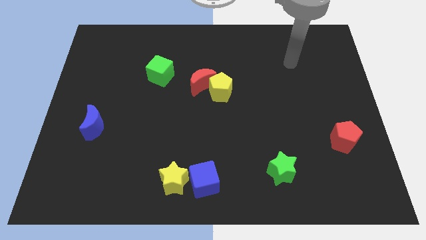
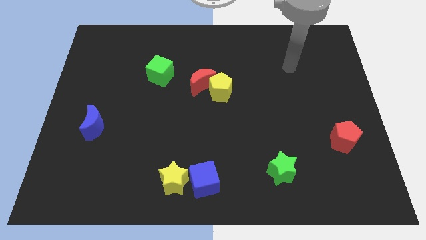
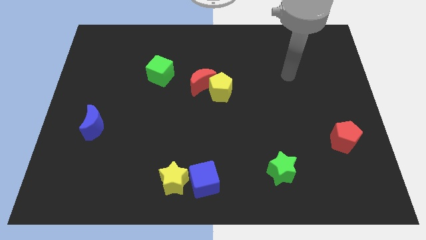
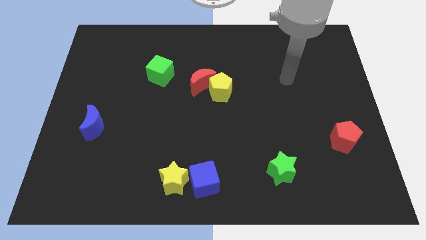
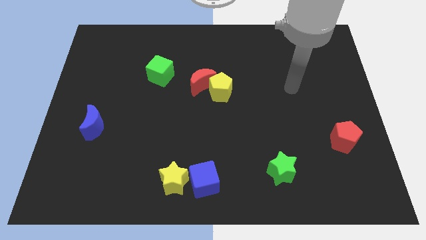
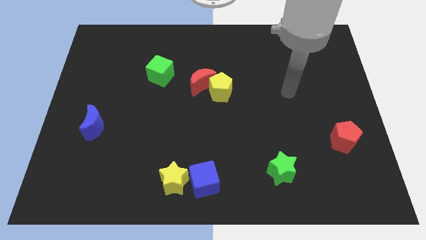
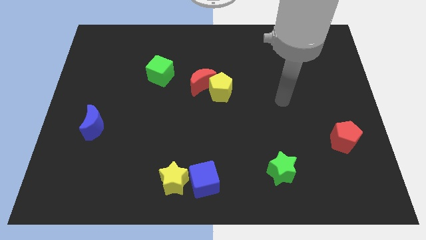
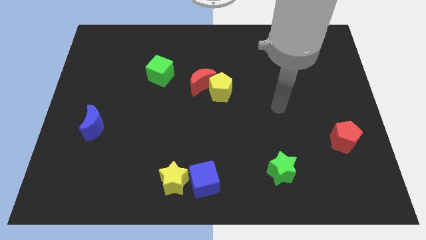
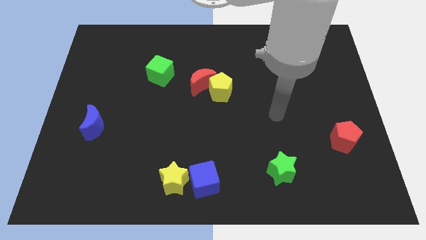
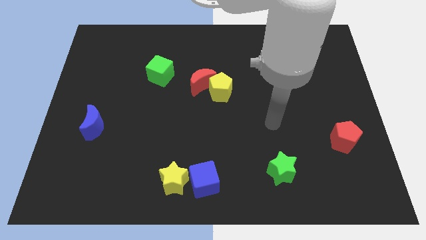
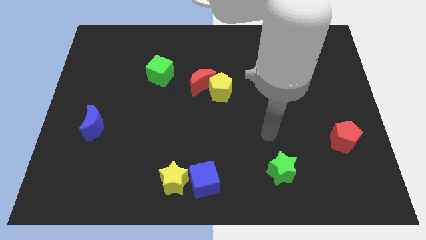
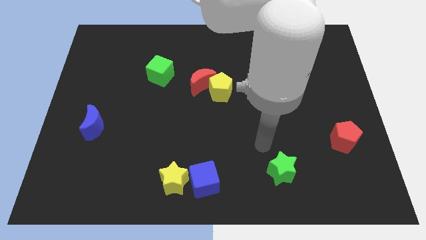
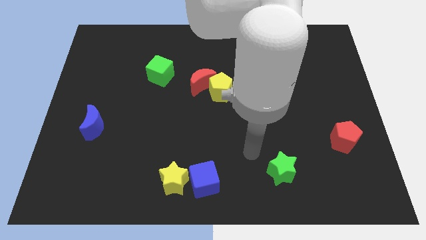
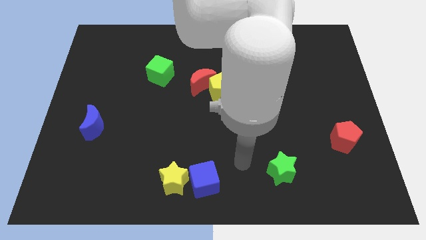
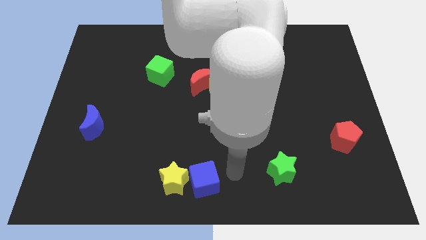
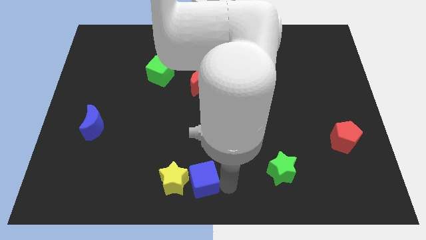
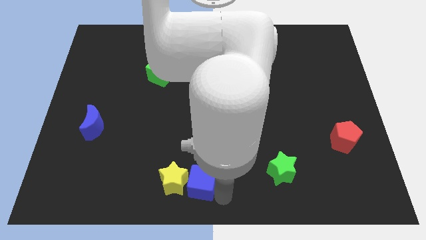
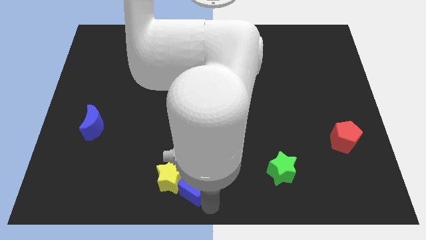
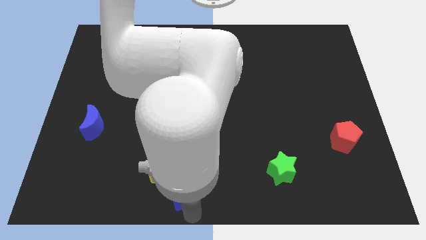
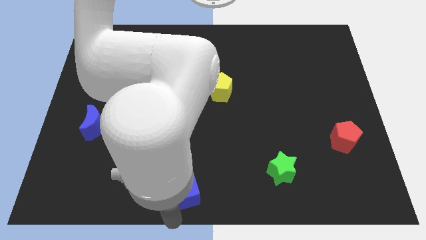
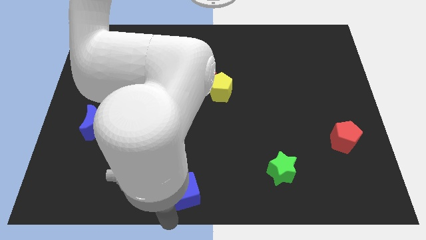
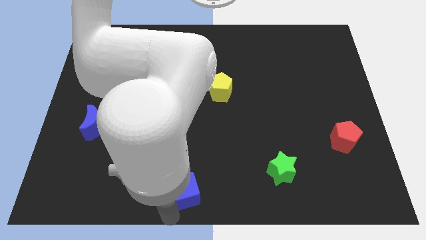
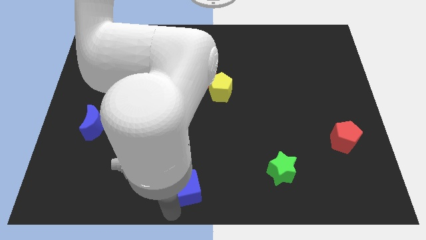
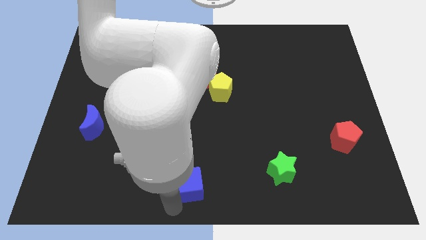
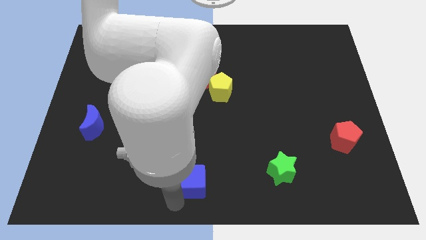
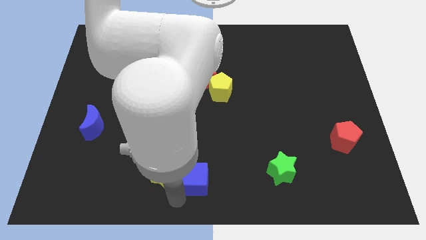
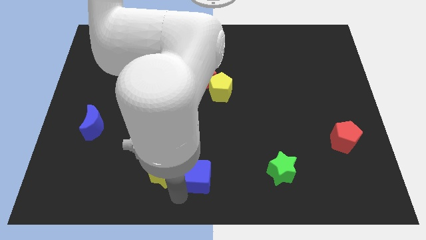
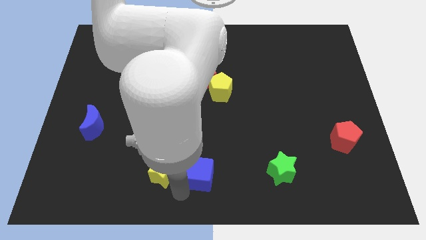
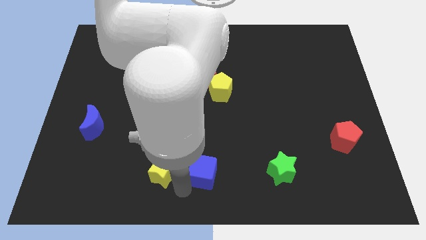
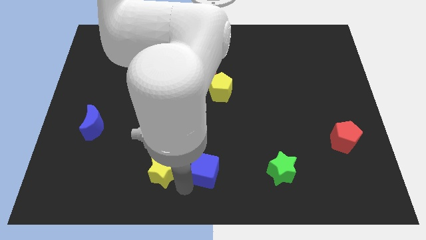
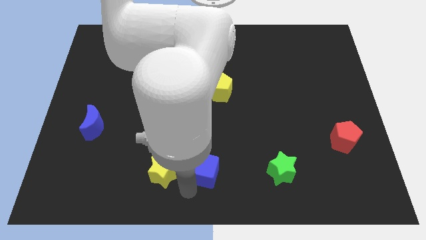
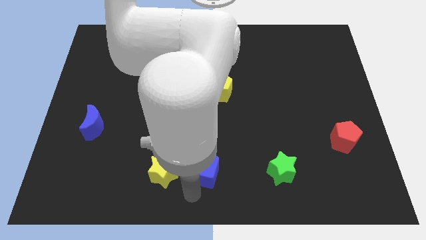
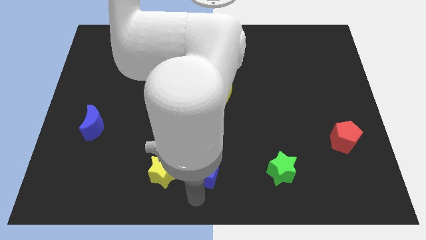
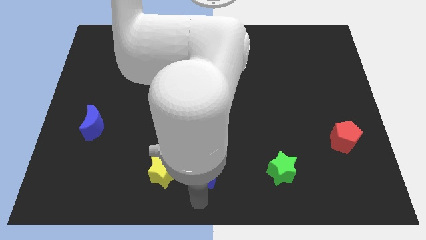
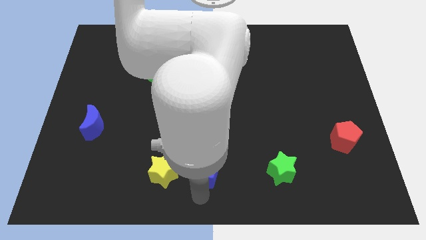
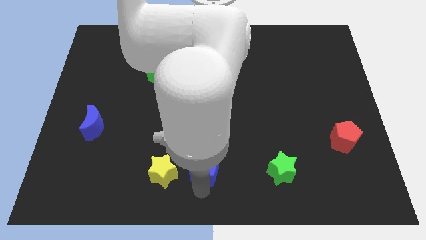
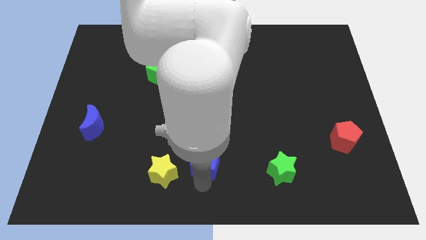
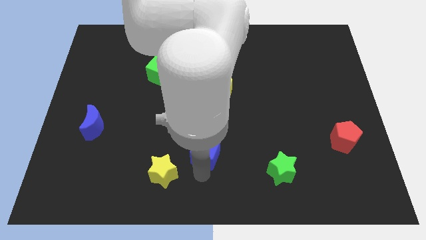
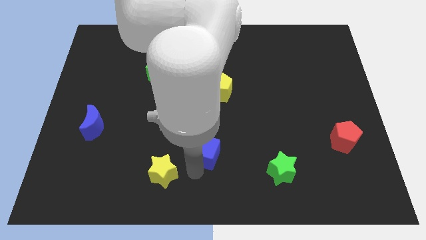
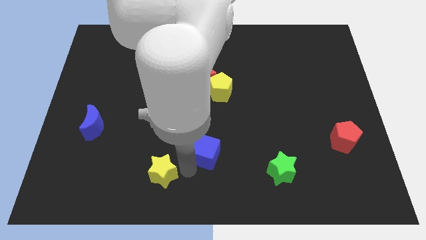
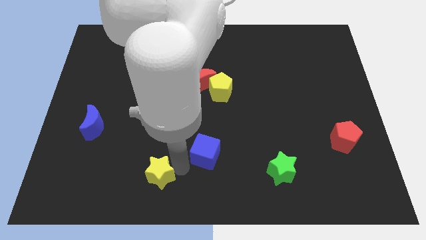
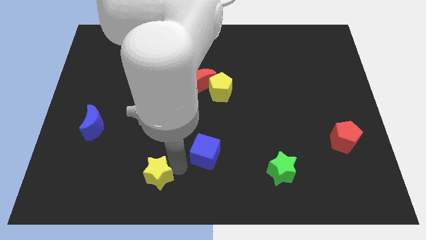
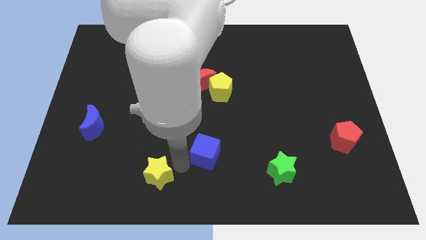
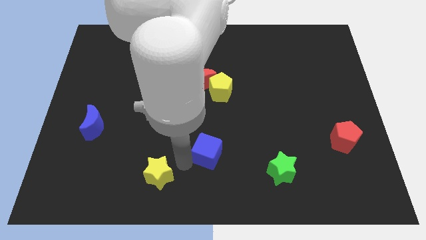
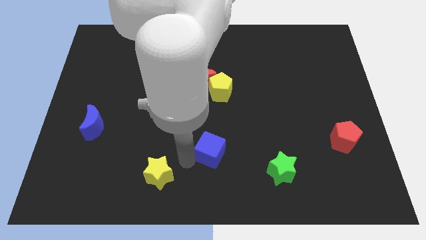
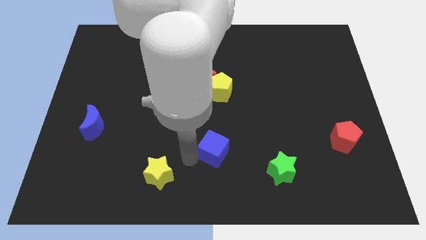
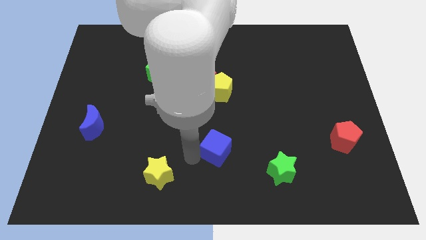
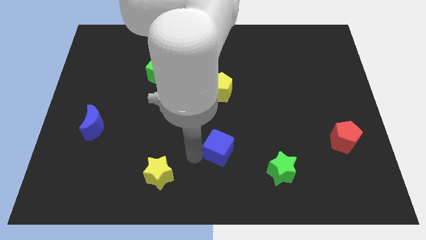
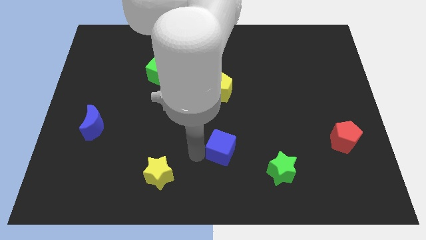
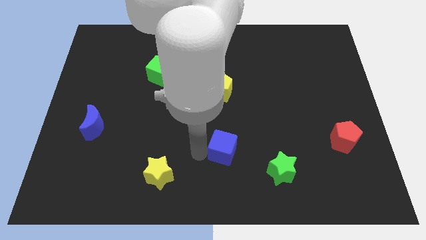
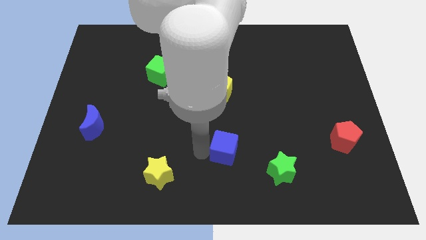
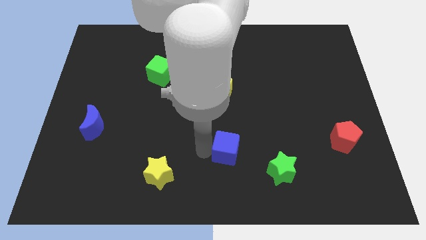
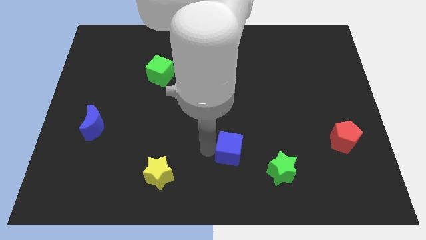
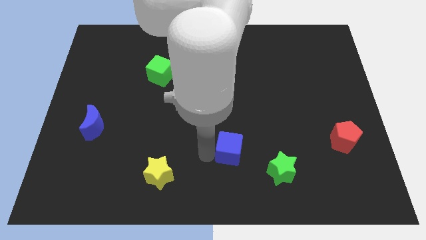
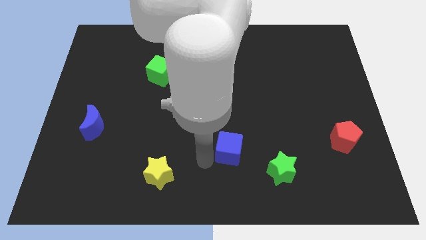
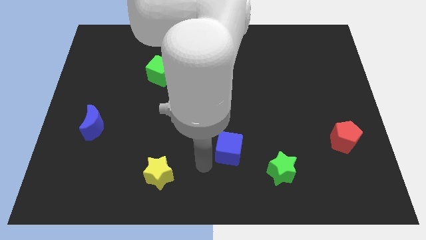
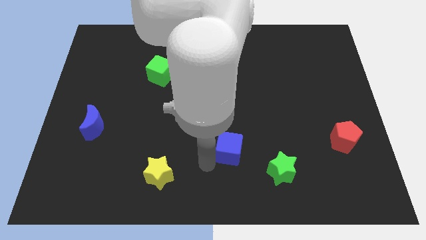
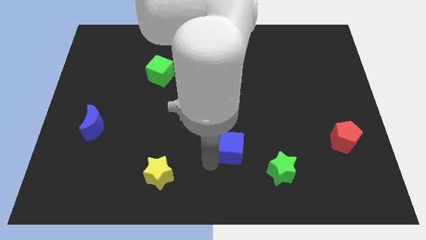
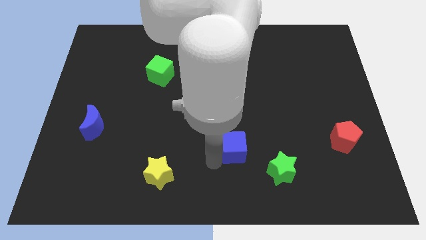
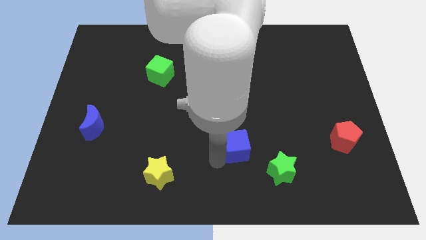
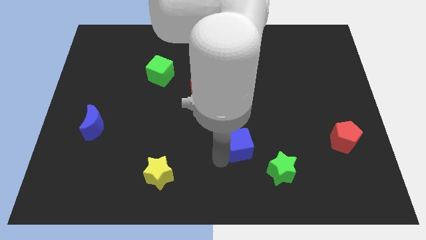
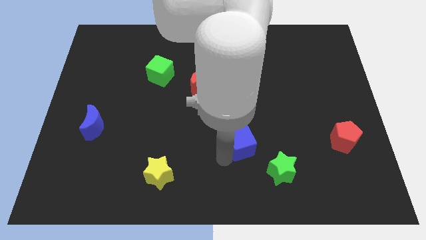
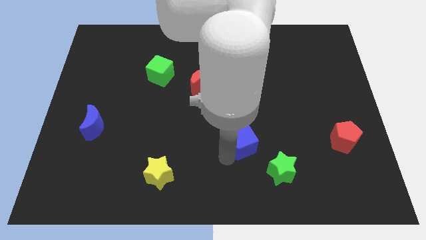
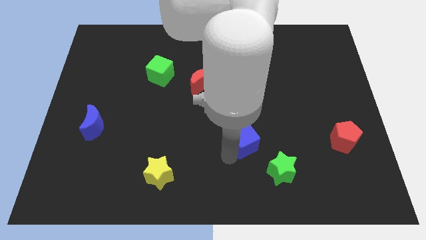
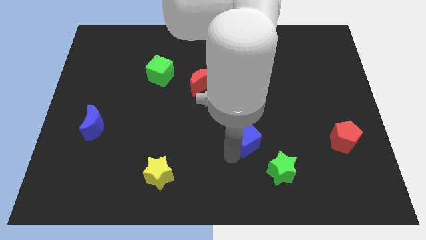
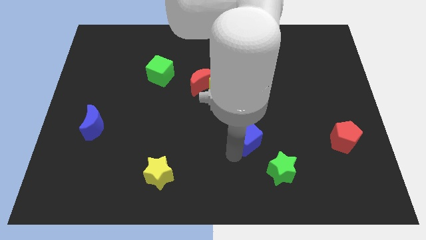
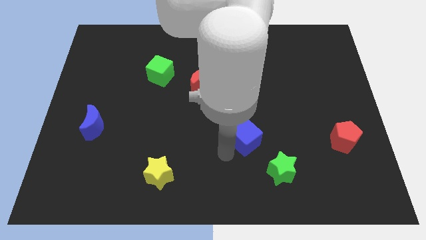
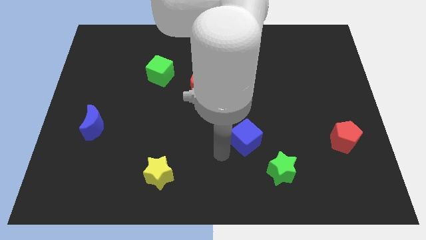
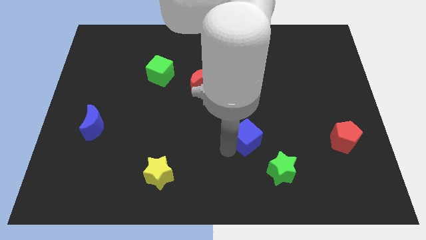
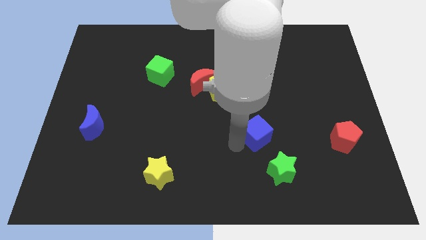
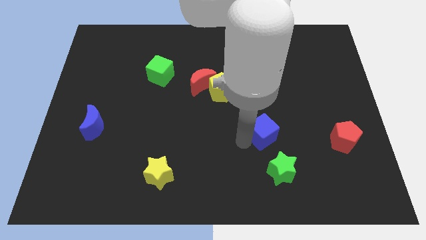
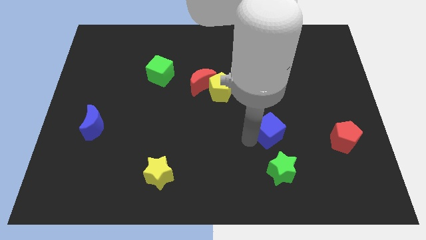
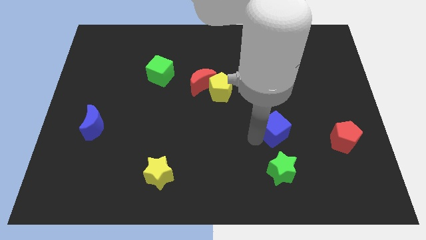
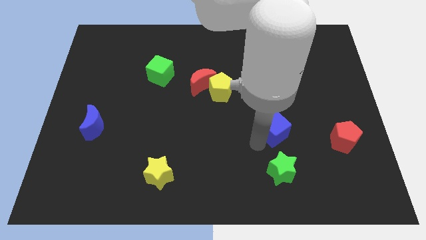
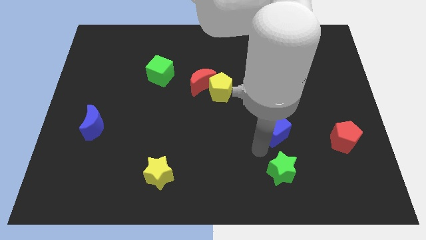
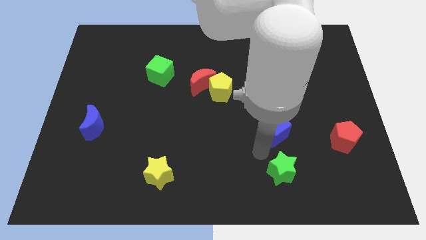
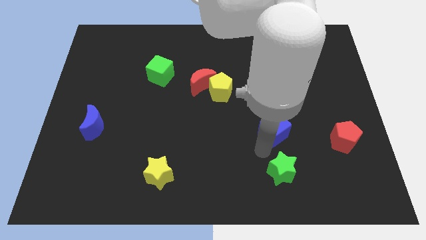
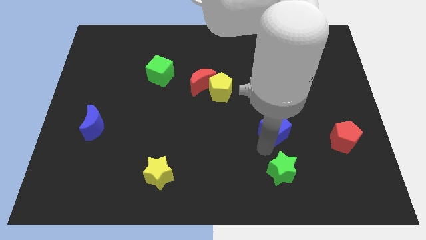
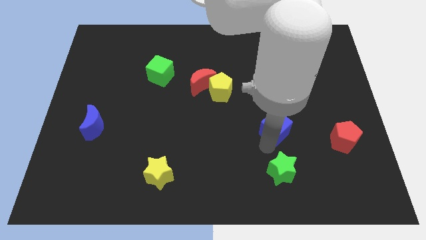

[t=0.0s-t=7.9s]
move the blue cube up and to the right diagonally
